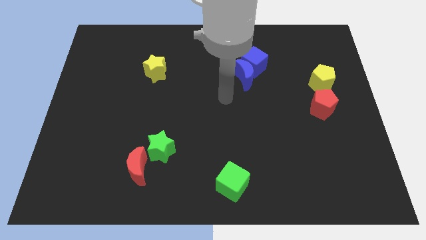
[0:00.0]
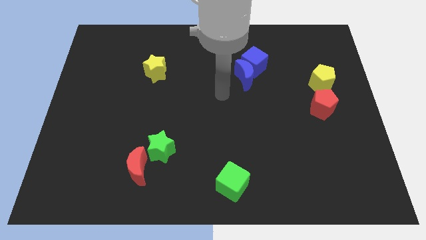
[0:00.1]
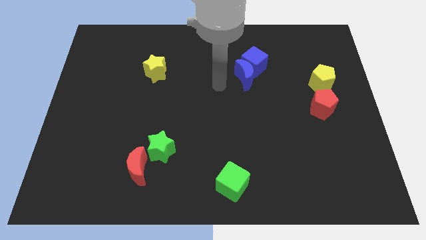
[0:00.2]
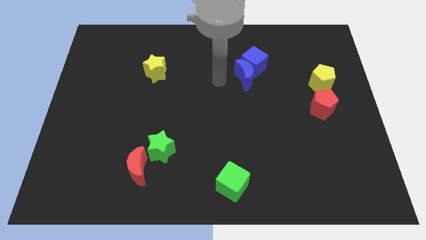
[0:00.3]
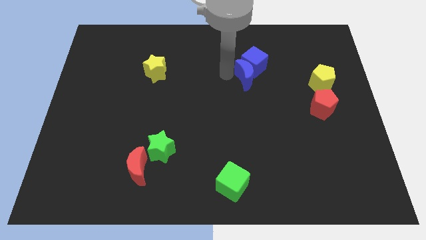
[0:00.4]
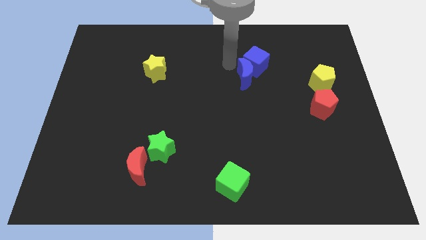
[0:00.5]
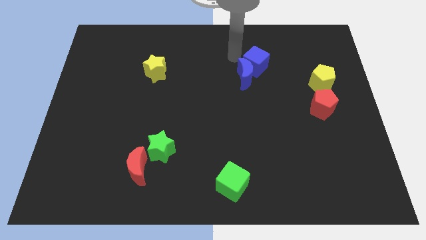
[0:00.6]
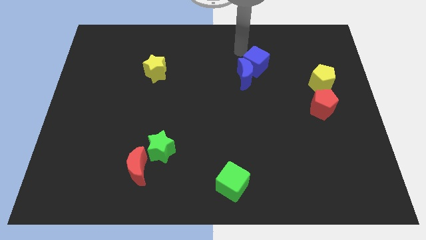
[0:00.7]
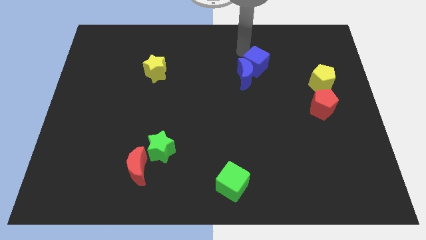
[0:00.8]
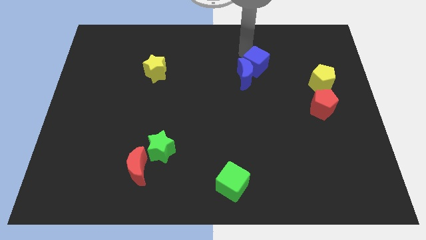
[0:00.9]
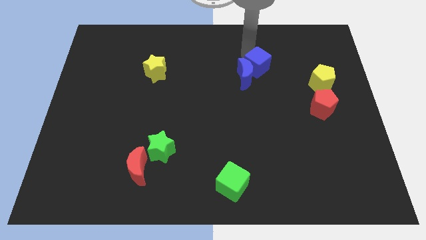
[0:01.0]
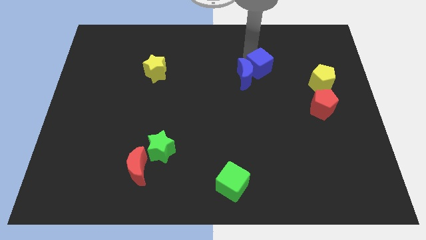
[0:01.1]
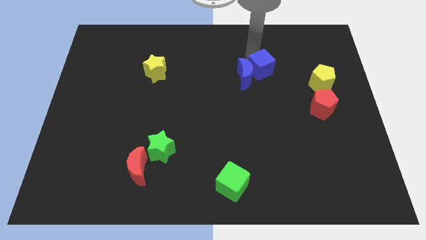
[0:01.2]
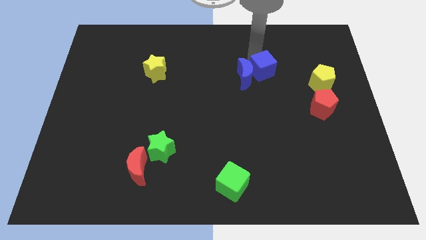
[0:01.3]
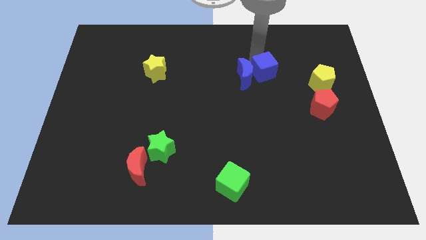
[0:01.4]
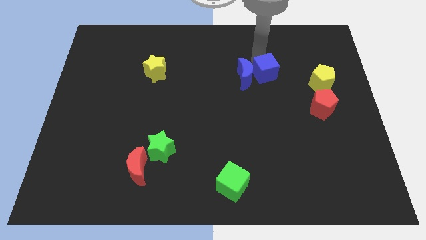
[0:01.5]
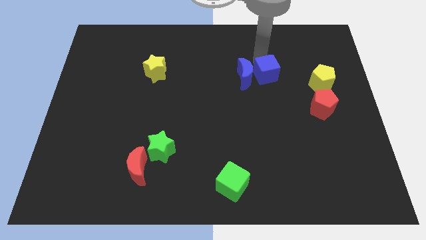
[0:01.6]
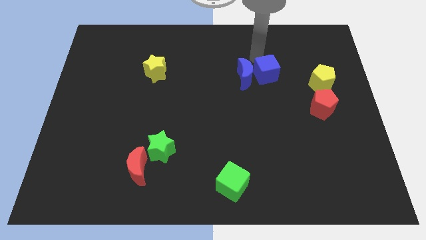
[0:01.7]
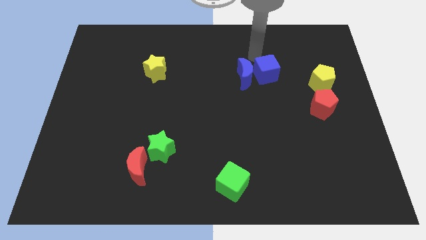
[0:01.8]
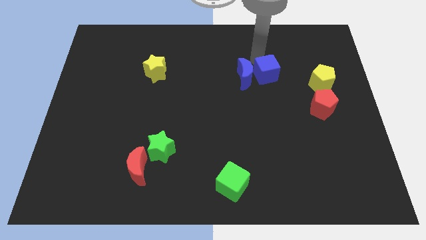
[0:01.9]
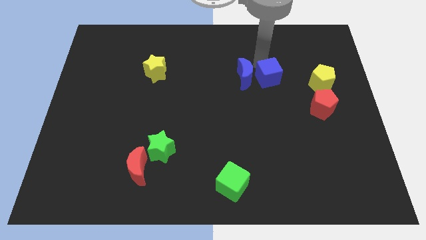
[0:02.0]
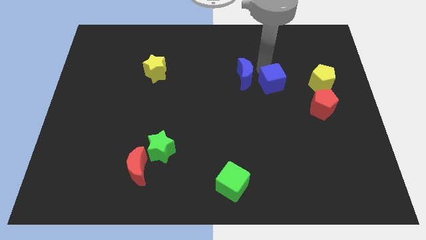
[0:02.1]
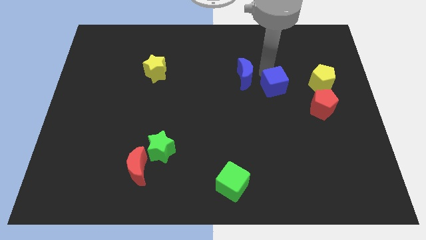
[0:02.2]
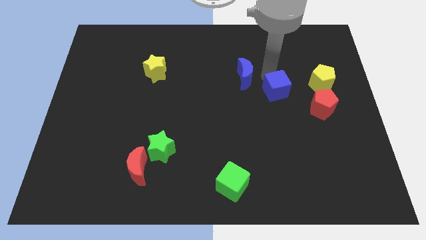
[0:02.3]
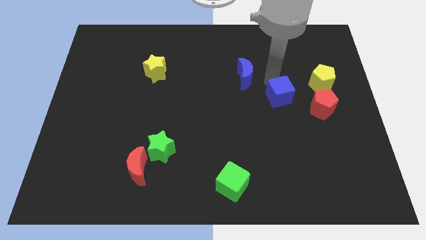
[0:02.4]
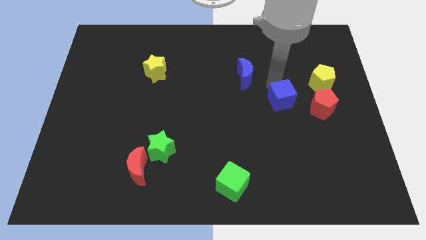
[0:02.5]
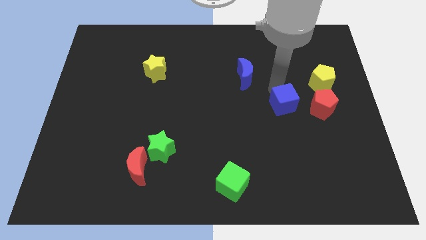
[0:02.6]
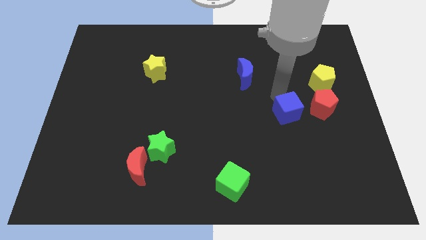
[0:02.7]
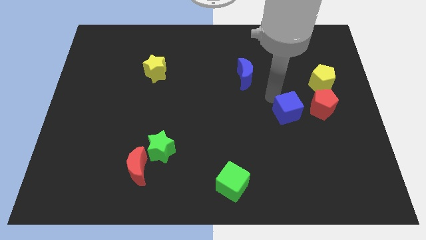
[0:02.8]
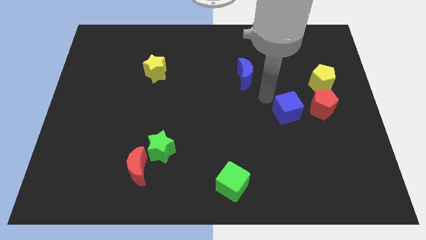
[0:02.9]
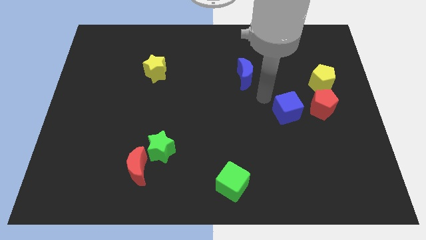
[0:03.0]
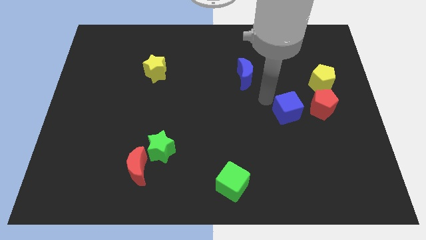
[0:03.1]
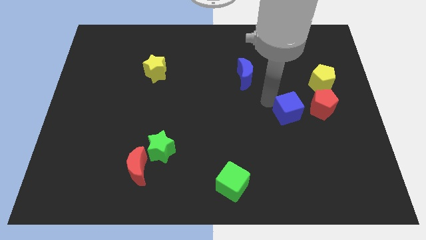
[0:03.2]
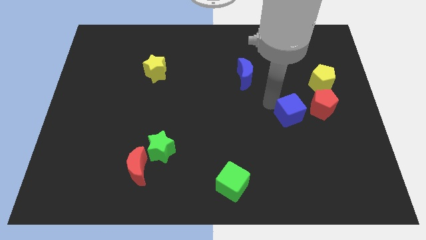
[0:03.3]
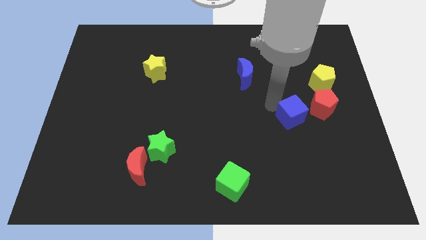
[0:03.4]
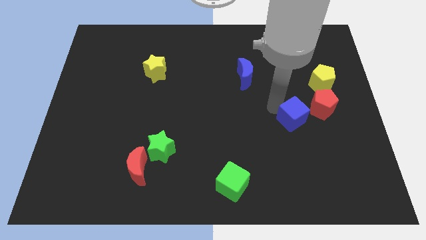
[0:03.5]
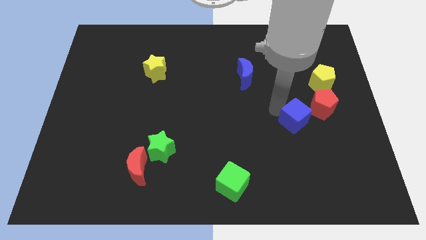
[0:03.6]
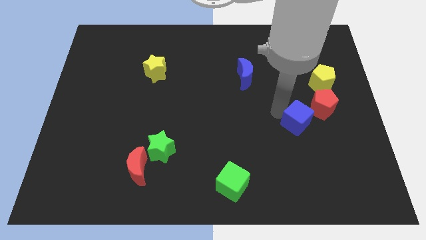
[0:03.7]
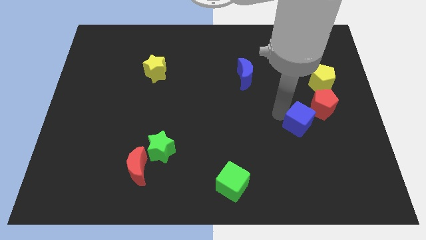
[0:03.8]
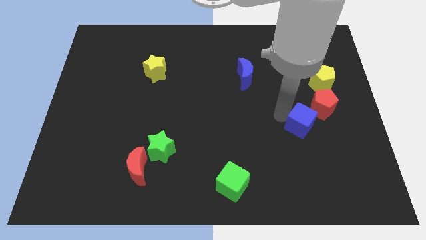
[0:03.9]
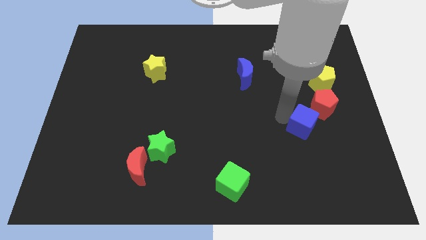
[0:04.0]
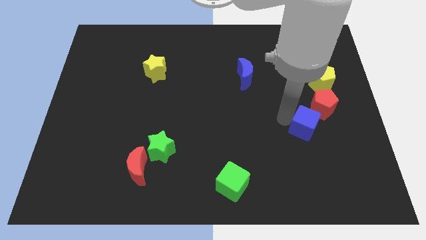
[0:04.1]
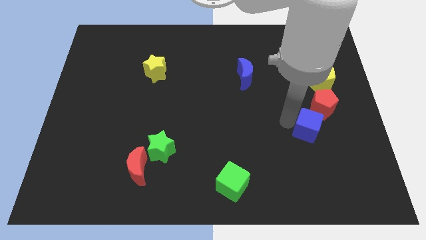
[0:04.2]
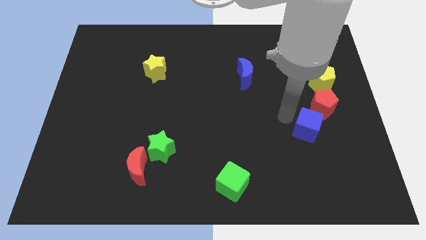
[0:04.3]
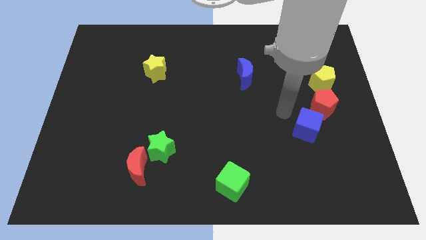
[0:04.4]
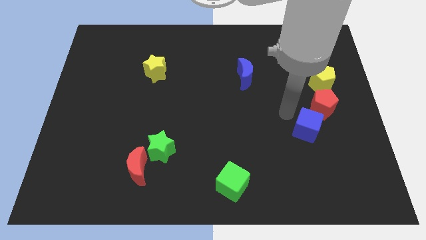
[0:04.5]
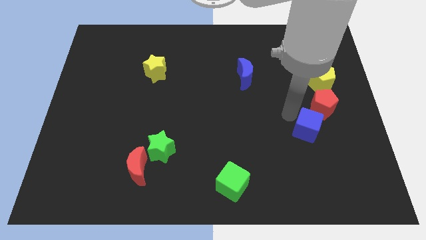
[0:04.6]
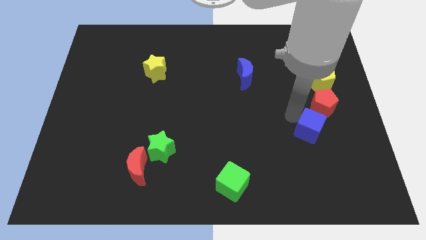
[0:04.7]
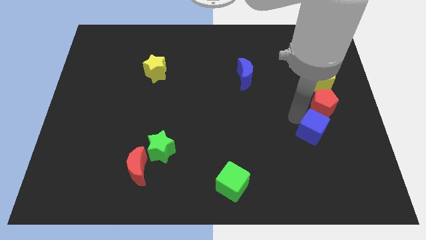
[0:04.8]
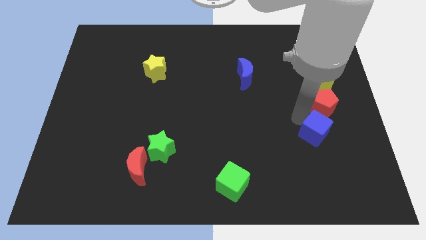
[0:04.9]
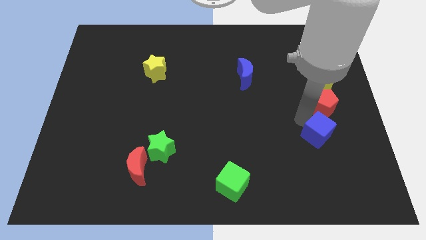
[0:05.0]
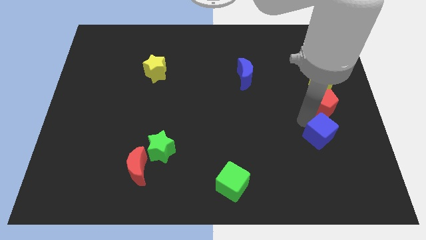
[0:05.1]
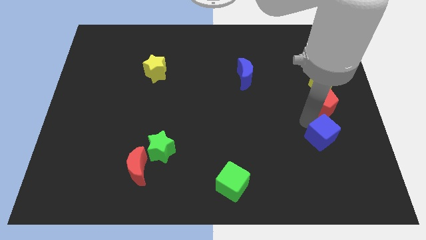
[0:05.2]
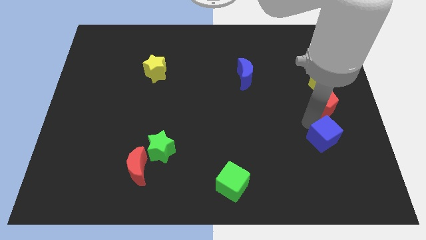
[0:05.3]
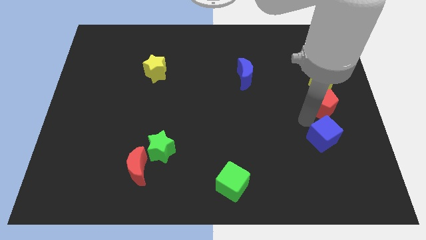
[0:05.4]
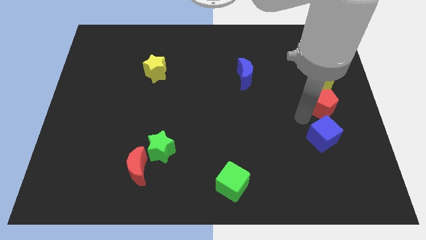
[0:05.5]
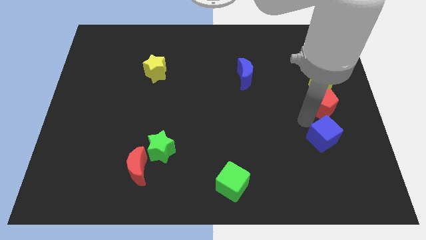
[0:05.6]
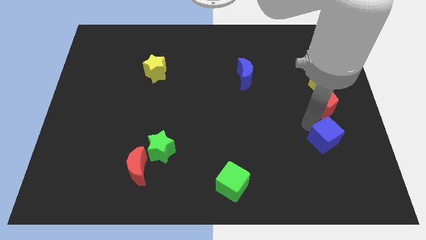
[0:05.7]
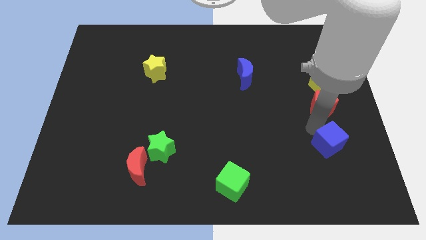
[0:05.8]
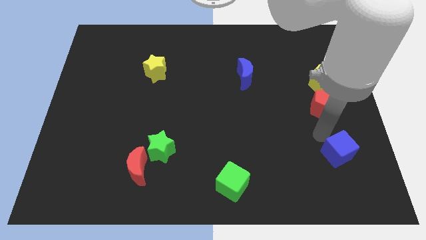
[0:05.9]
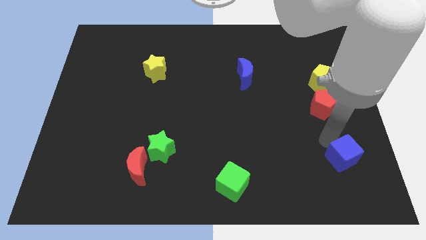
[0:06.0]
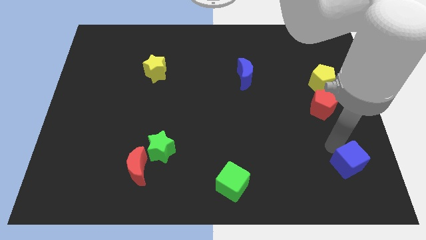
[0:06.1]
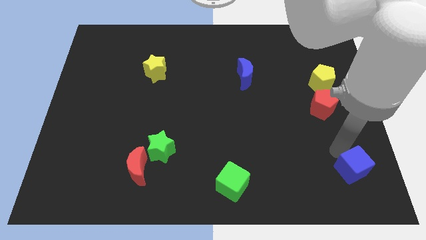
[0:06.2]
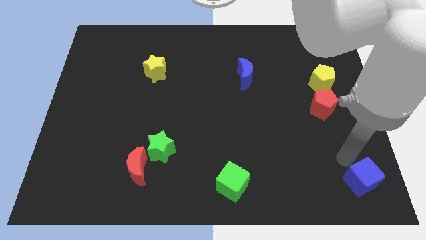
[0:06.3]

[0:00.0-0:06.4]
slide the blue cube to the lower right corner

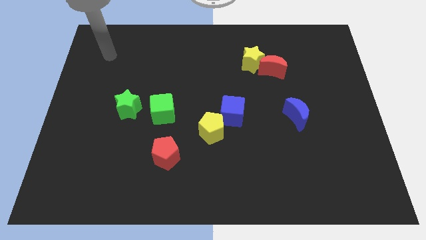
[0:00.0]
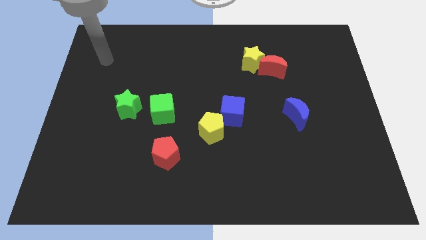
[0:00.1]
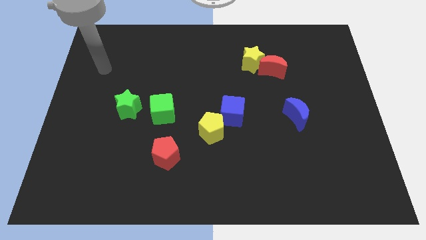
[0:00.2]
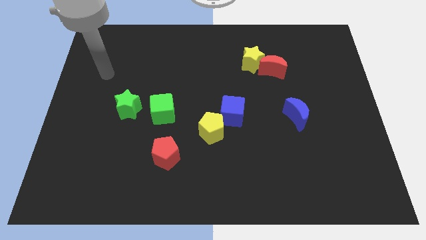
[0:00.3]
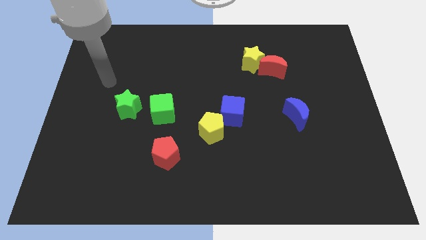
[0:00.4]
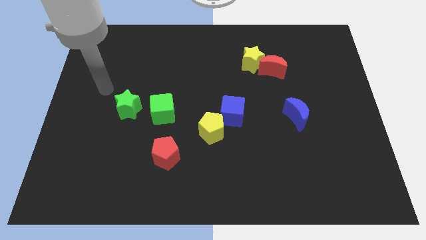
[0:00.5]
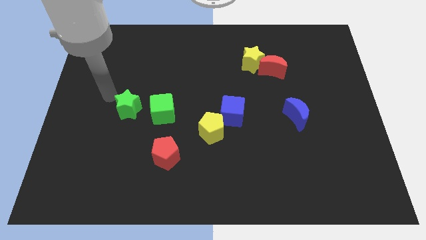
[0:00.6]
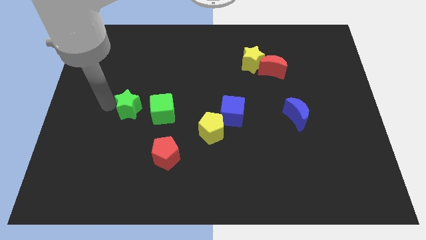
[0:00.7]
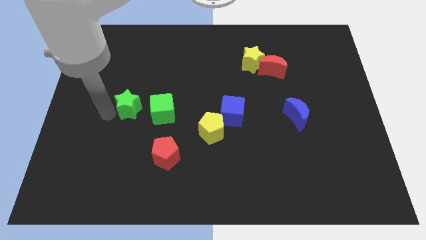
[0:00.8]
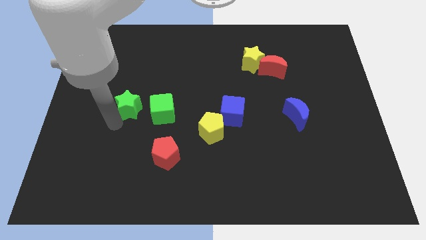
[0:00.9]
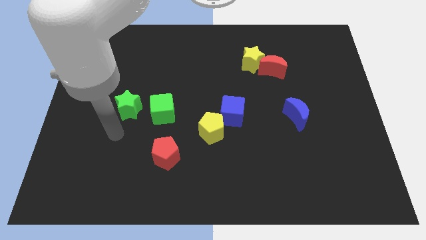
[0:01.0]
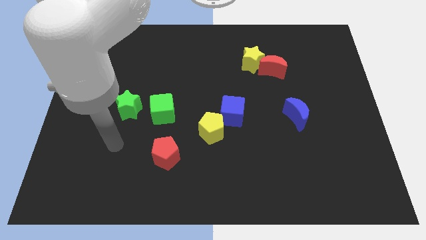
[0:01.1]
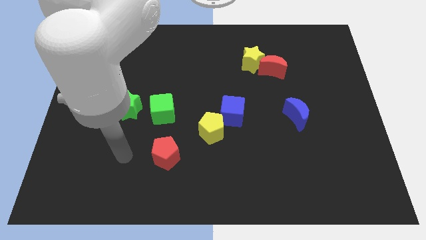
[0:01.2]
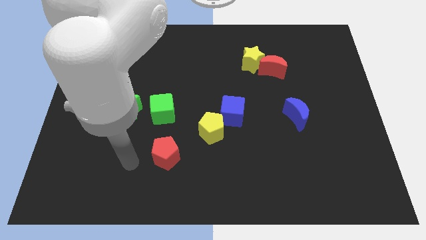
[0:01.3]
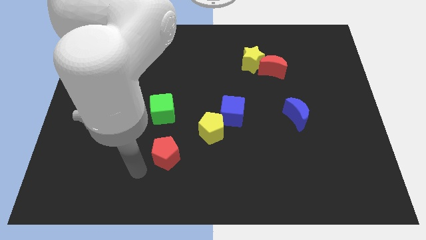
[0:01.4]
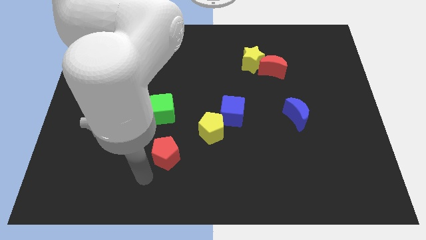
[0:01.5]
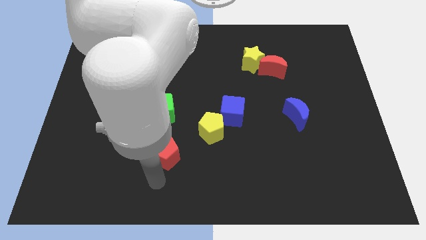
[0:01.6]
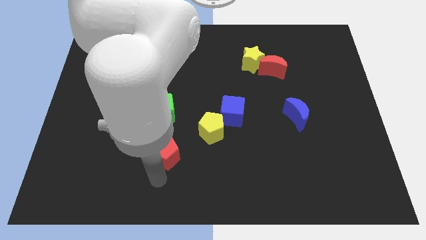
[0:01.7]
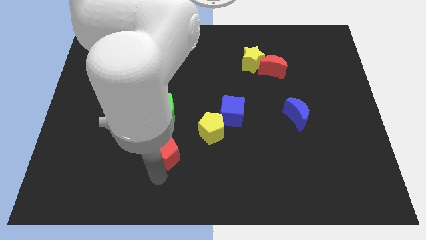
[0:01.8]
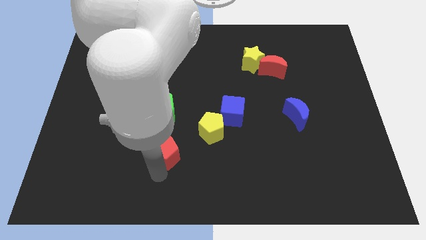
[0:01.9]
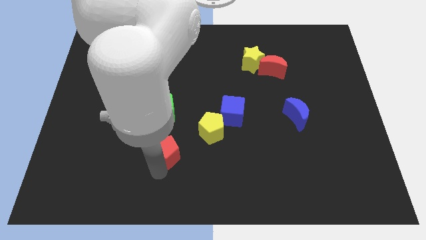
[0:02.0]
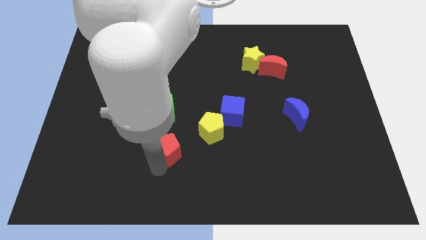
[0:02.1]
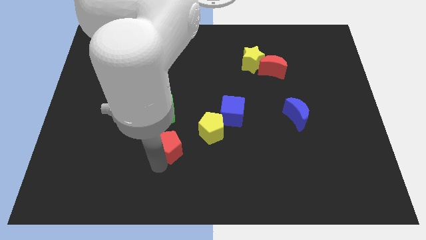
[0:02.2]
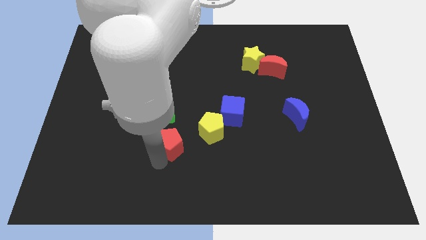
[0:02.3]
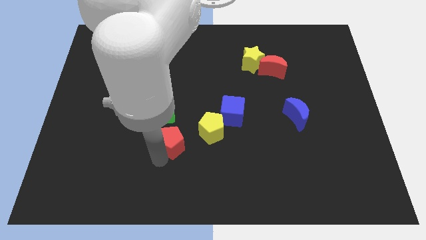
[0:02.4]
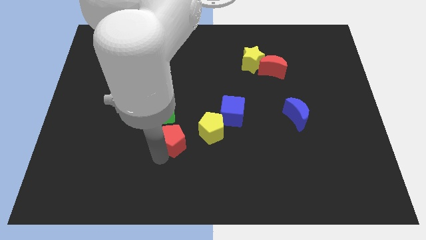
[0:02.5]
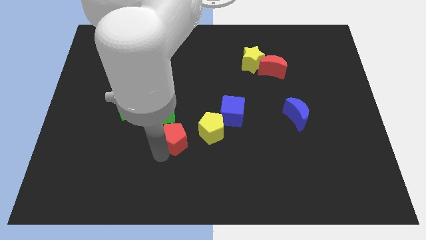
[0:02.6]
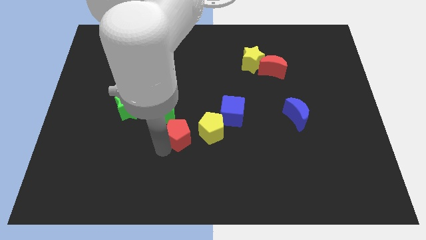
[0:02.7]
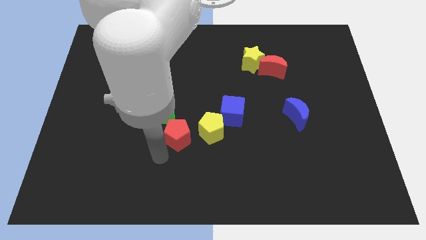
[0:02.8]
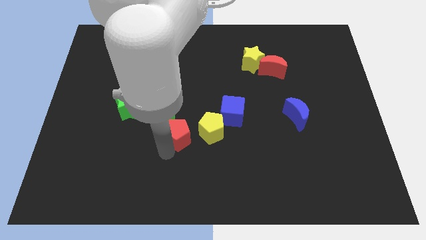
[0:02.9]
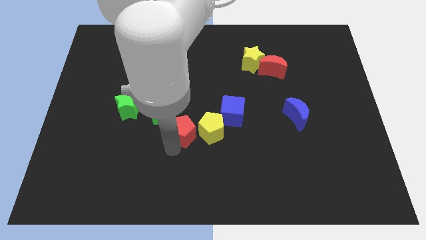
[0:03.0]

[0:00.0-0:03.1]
push the red pentagon to the center
